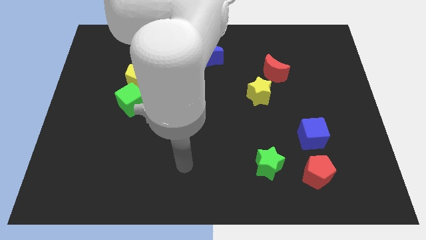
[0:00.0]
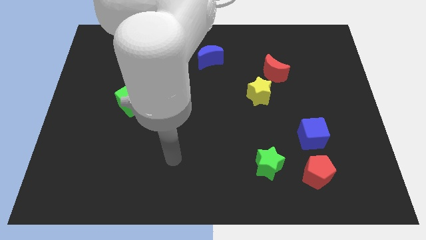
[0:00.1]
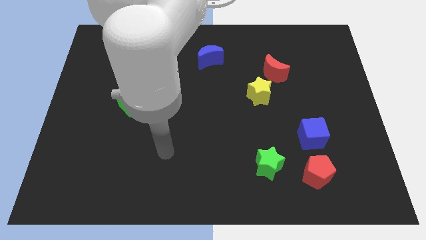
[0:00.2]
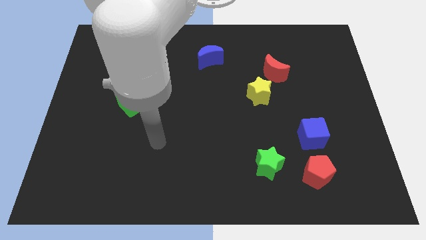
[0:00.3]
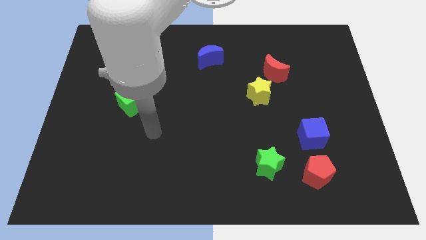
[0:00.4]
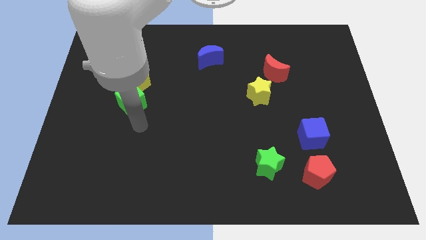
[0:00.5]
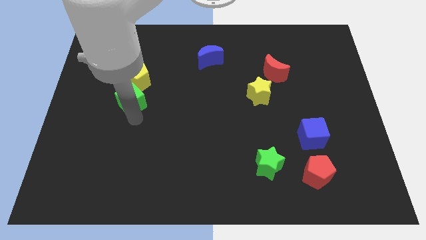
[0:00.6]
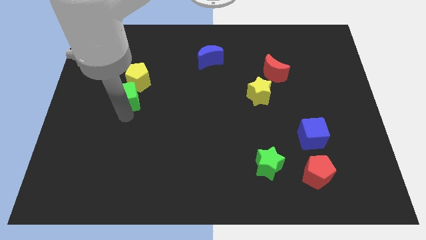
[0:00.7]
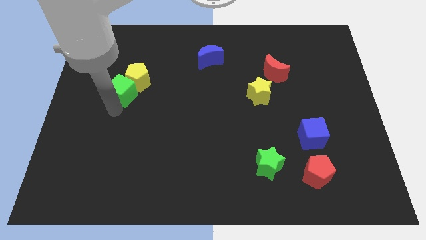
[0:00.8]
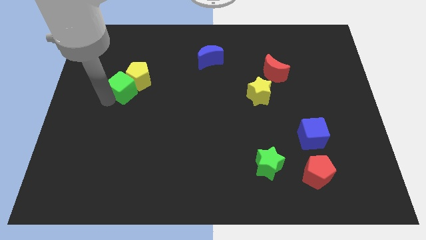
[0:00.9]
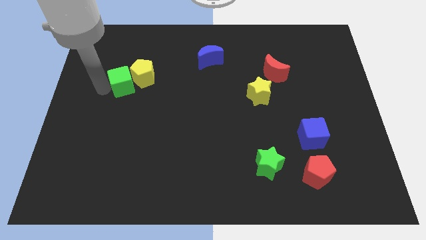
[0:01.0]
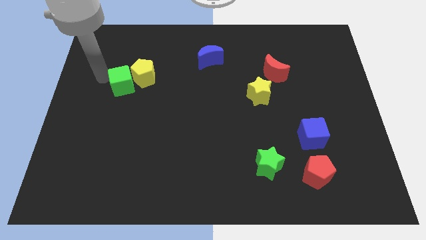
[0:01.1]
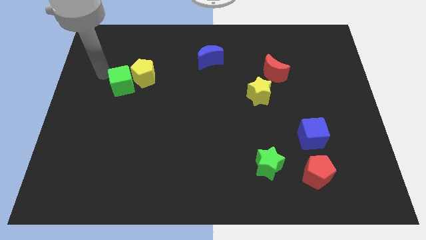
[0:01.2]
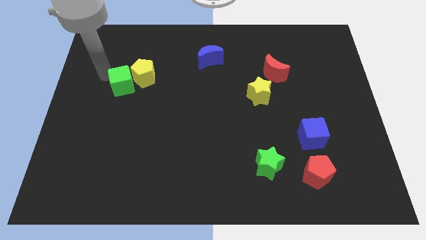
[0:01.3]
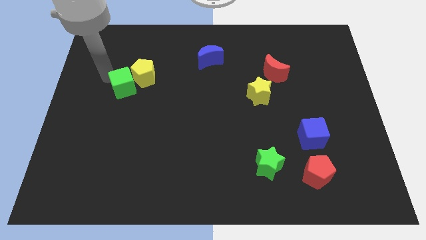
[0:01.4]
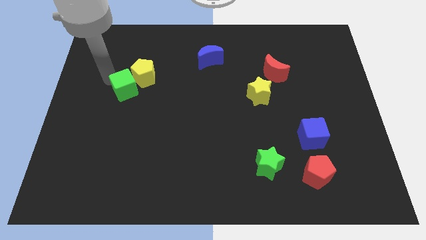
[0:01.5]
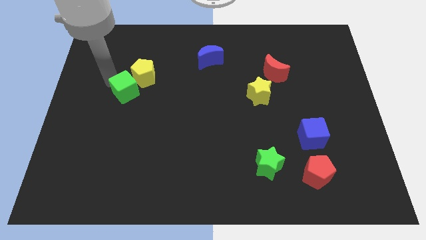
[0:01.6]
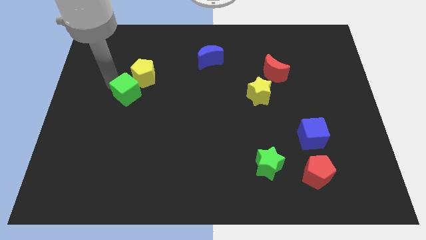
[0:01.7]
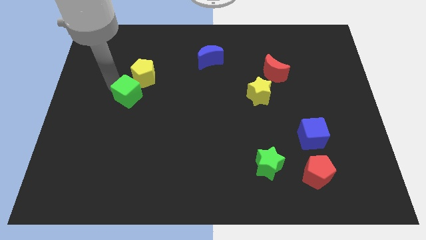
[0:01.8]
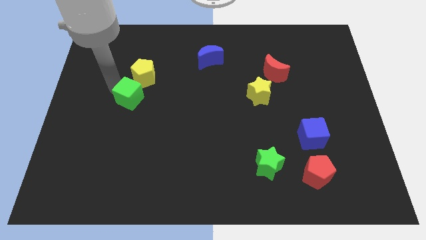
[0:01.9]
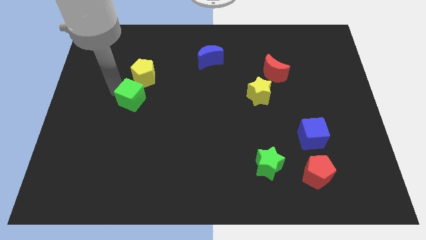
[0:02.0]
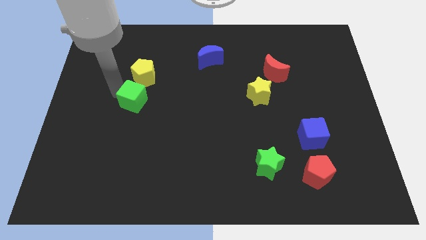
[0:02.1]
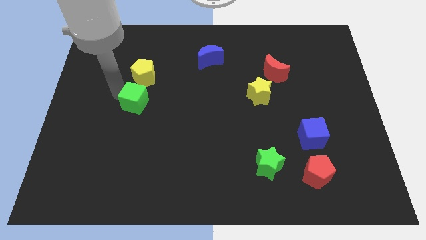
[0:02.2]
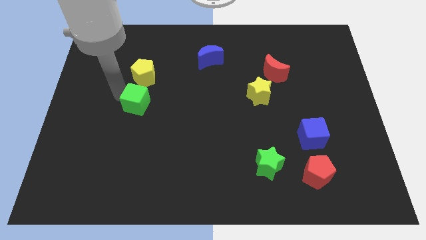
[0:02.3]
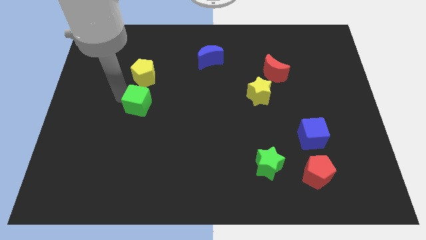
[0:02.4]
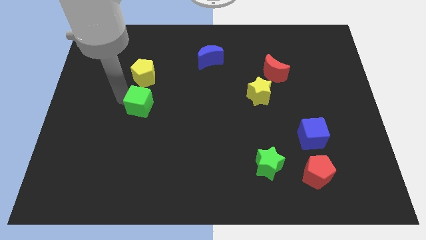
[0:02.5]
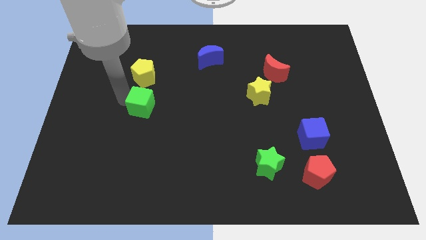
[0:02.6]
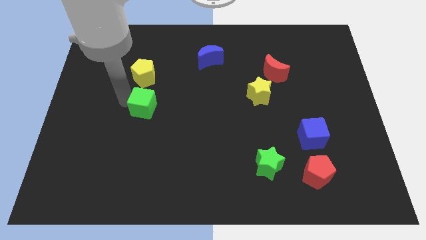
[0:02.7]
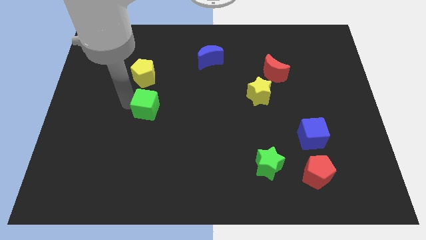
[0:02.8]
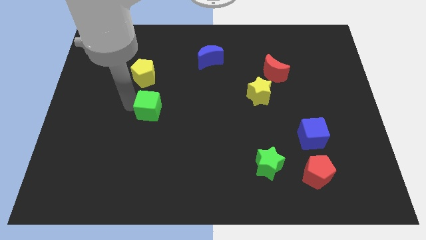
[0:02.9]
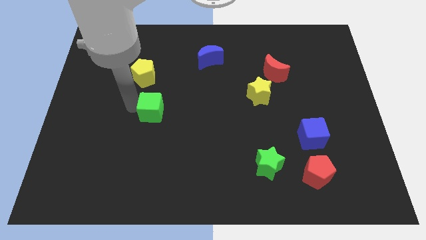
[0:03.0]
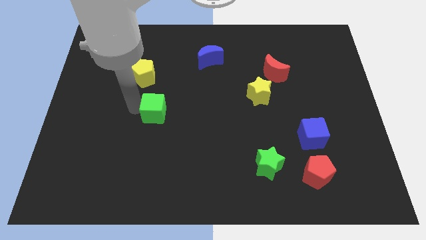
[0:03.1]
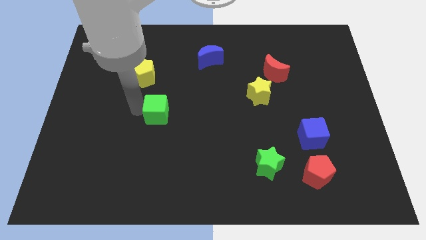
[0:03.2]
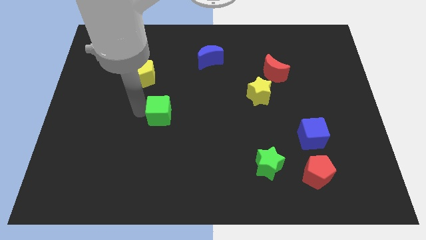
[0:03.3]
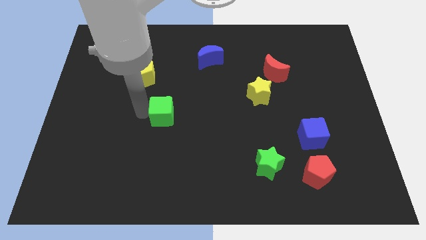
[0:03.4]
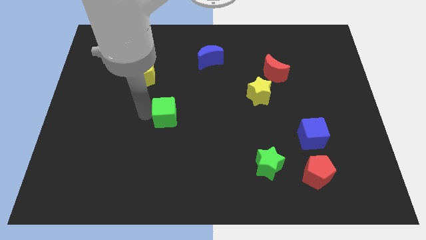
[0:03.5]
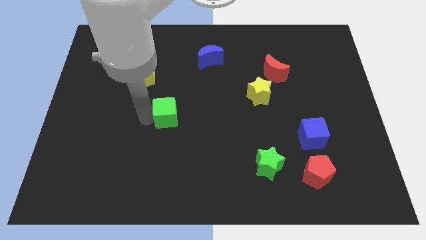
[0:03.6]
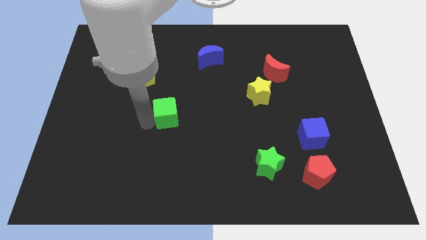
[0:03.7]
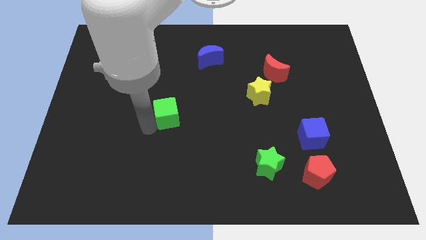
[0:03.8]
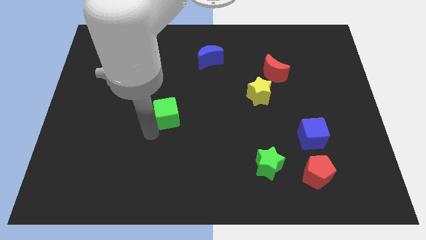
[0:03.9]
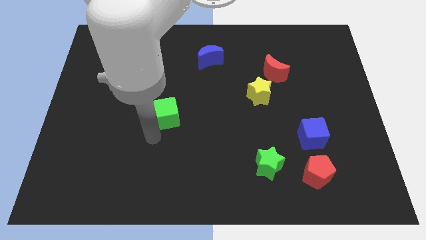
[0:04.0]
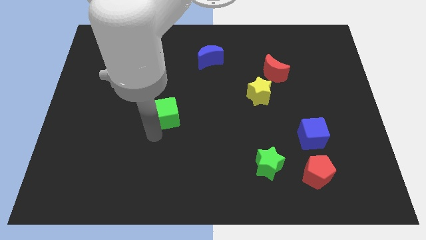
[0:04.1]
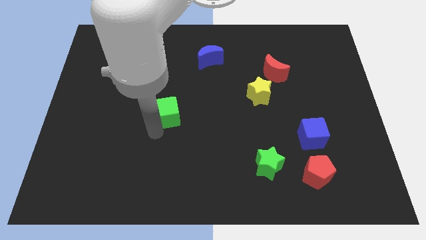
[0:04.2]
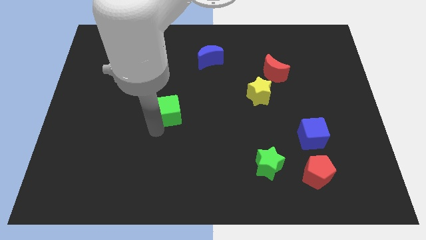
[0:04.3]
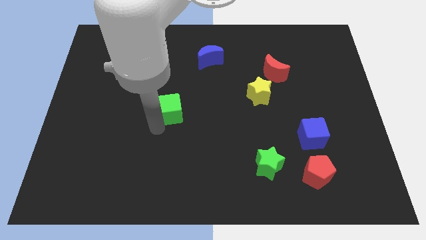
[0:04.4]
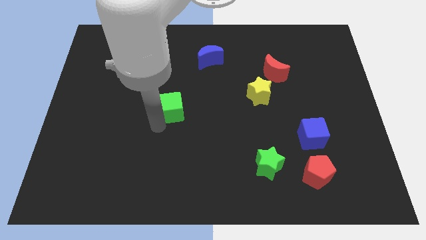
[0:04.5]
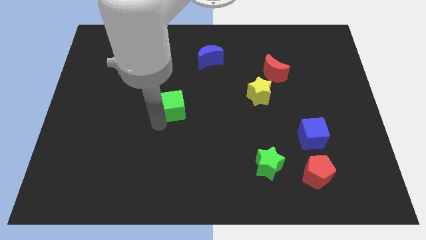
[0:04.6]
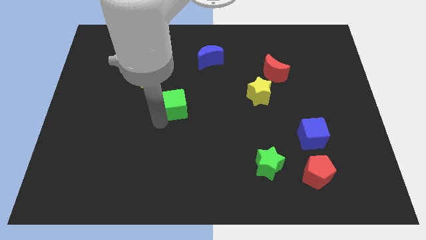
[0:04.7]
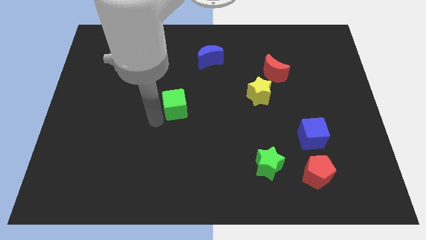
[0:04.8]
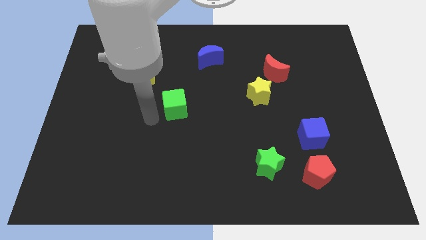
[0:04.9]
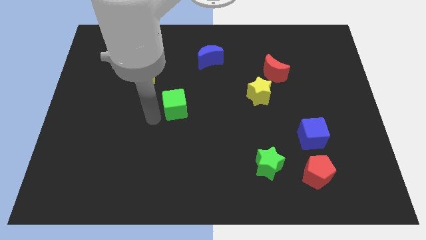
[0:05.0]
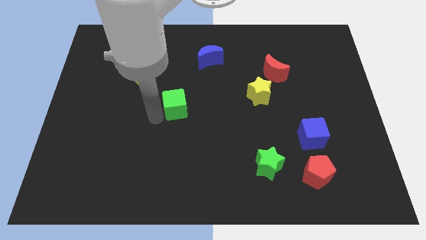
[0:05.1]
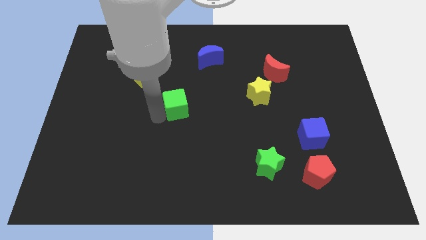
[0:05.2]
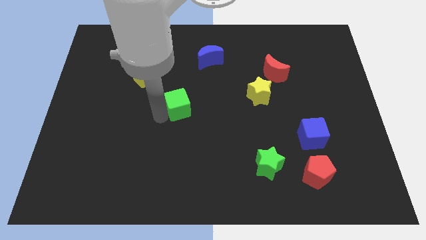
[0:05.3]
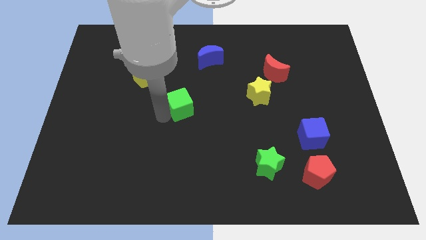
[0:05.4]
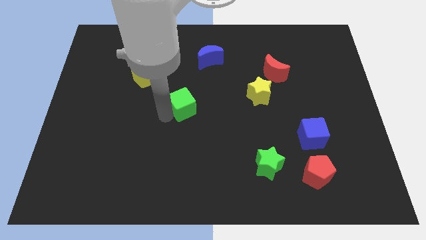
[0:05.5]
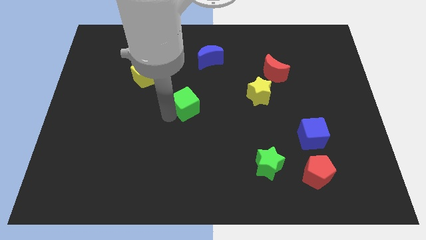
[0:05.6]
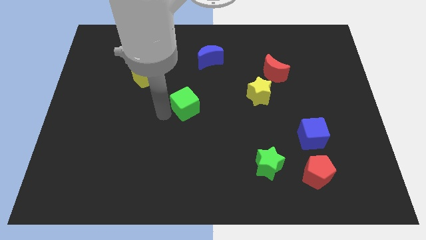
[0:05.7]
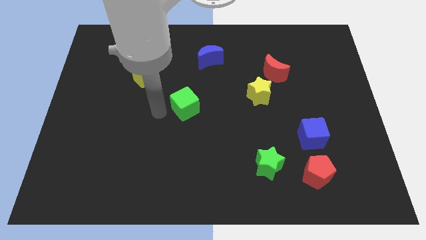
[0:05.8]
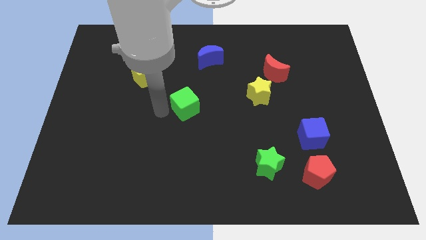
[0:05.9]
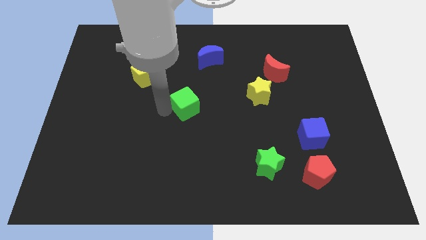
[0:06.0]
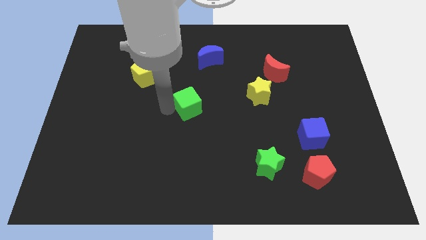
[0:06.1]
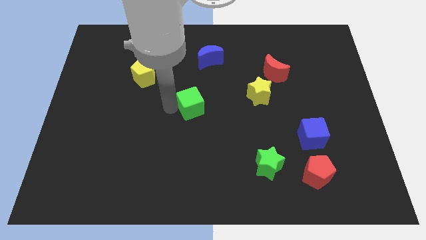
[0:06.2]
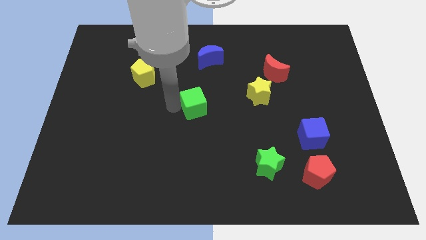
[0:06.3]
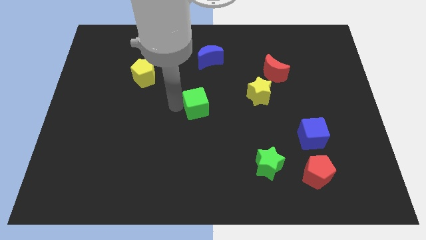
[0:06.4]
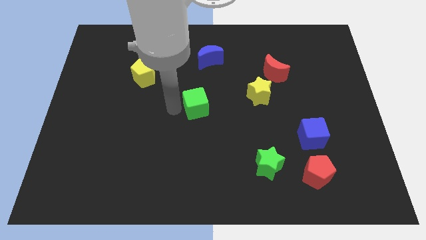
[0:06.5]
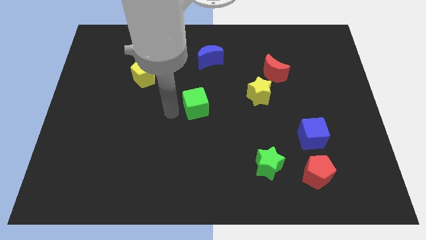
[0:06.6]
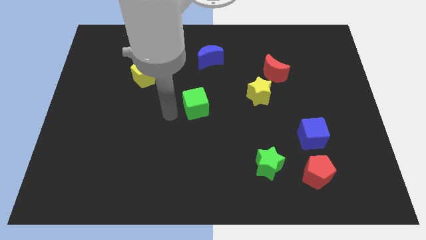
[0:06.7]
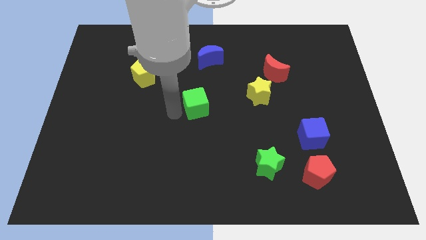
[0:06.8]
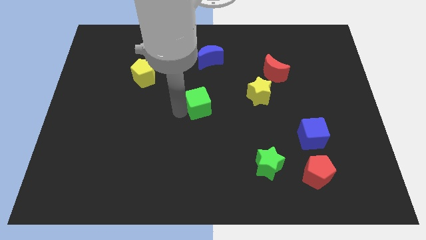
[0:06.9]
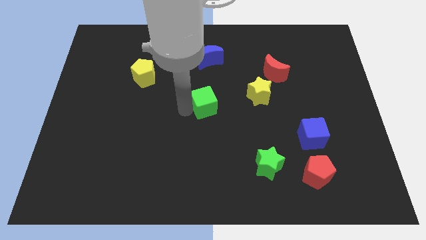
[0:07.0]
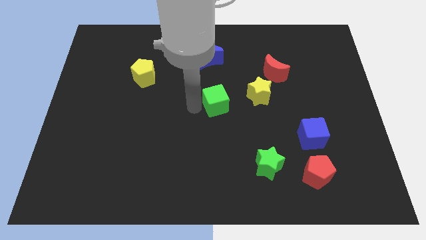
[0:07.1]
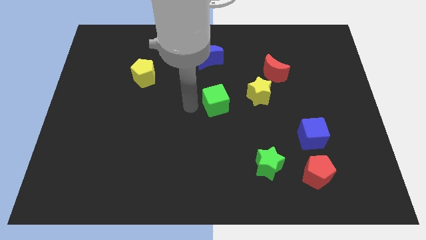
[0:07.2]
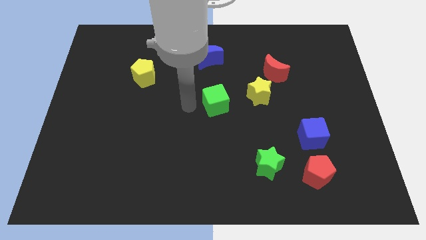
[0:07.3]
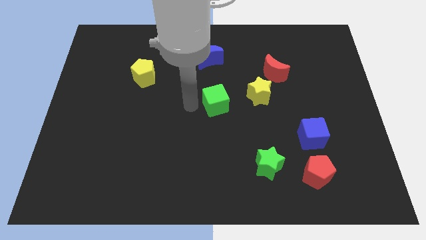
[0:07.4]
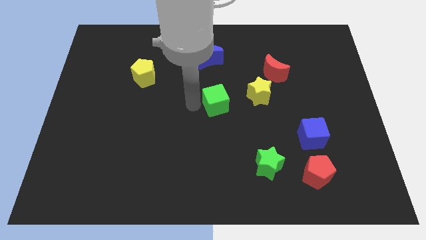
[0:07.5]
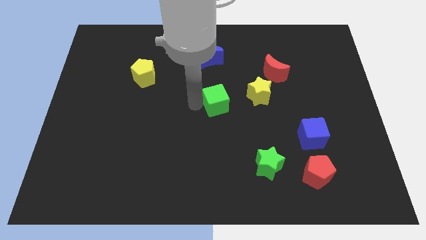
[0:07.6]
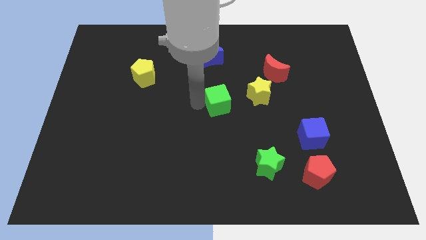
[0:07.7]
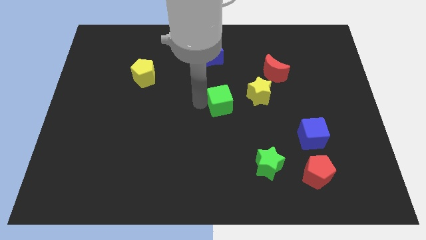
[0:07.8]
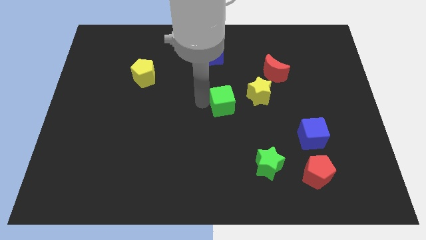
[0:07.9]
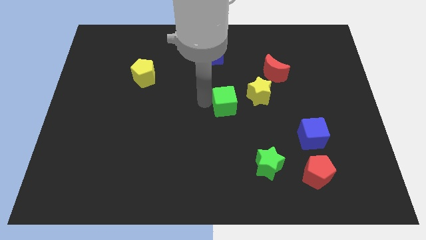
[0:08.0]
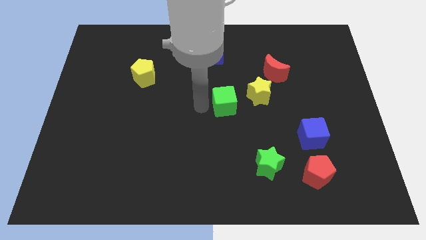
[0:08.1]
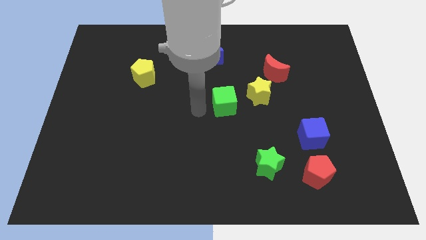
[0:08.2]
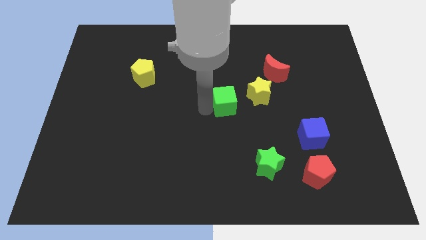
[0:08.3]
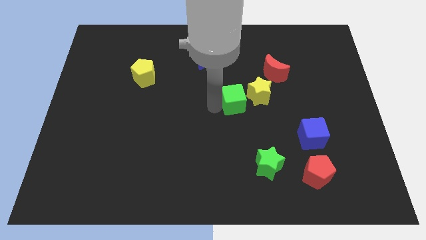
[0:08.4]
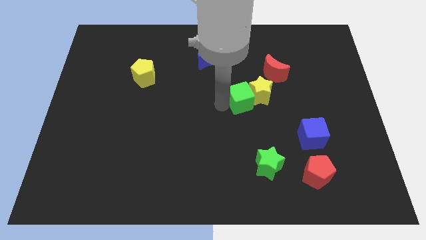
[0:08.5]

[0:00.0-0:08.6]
push the green cube next to the yellow star
